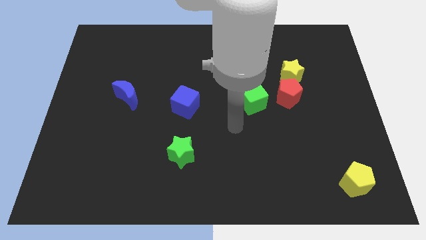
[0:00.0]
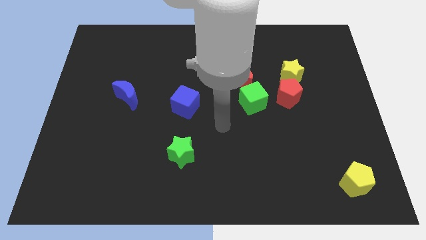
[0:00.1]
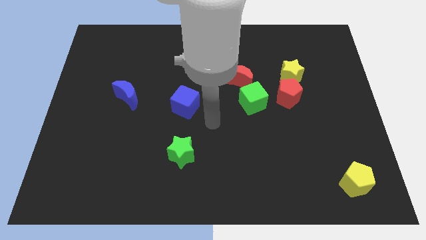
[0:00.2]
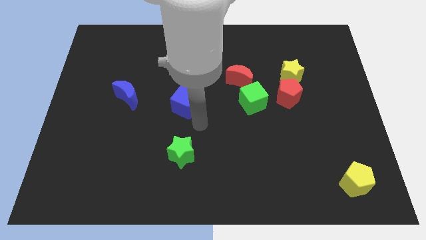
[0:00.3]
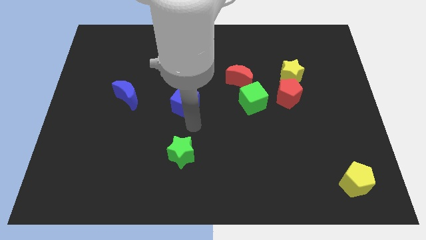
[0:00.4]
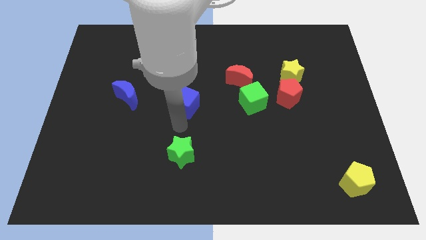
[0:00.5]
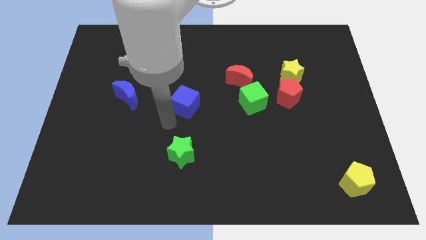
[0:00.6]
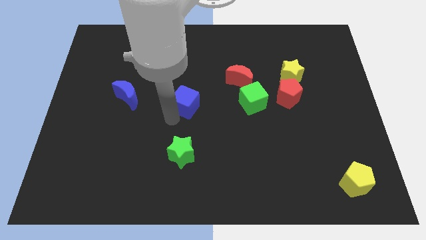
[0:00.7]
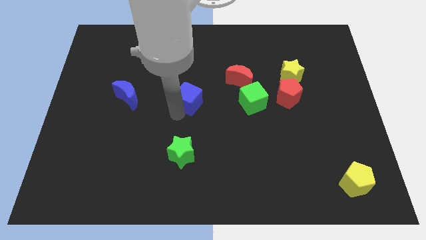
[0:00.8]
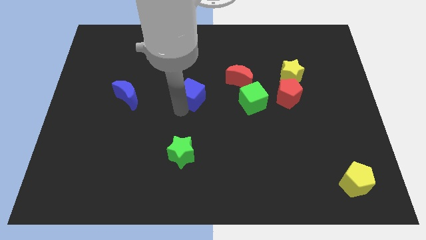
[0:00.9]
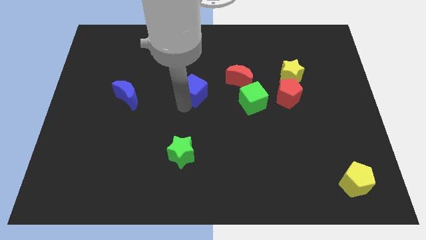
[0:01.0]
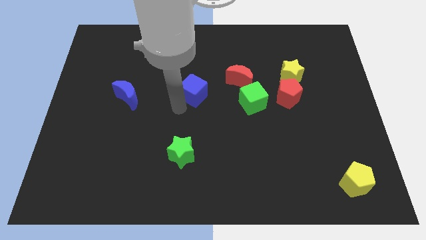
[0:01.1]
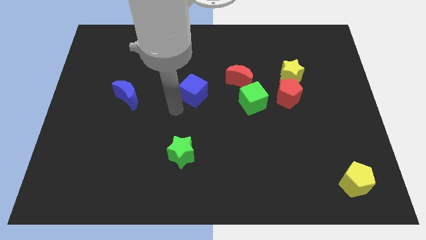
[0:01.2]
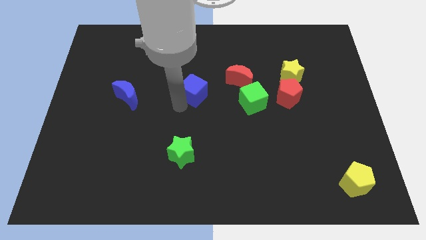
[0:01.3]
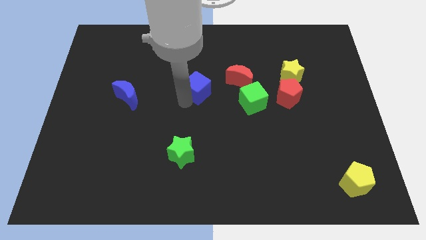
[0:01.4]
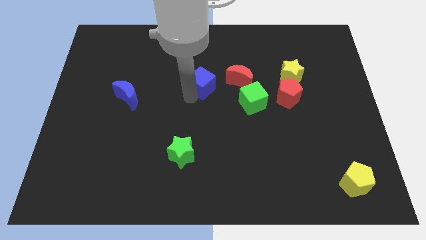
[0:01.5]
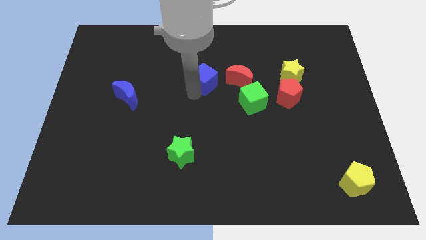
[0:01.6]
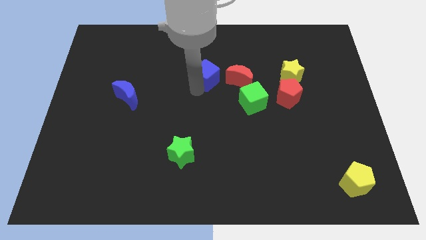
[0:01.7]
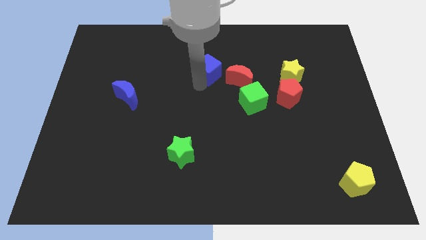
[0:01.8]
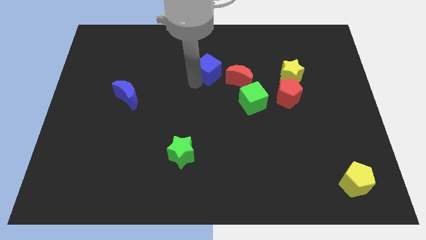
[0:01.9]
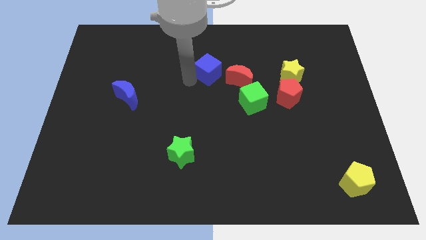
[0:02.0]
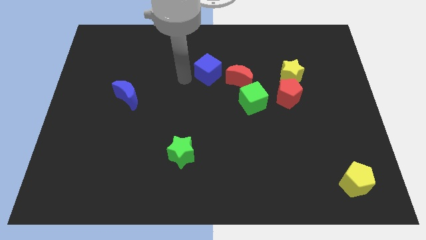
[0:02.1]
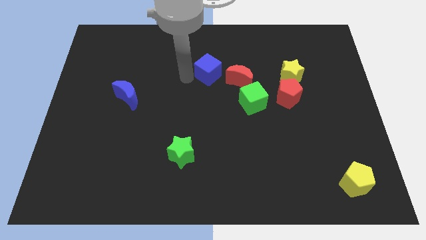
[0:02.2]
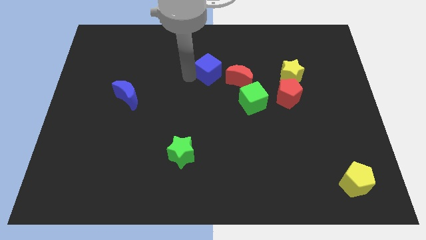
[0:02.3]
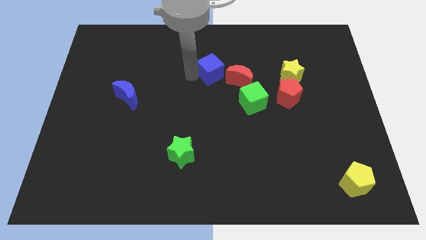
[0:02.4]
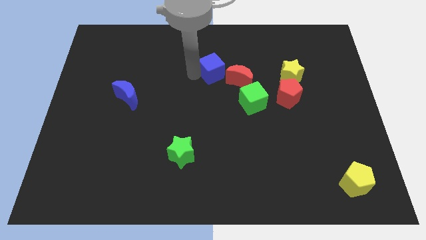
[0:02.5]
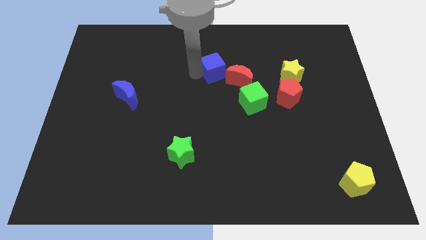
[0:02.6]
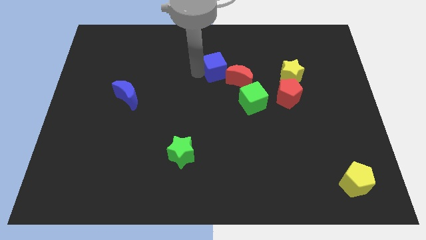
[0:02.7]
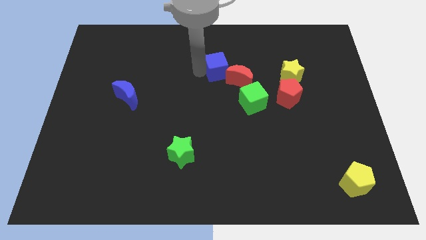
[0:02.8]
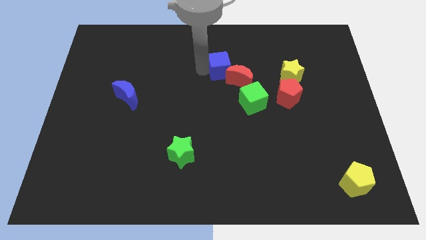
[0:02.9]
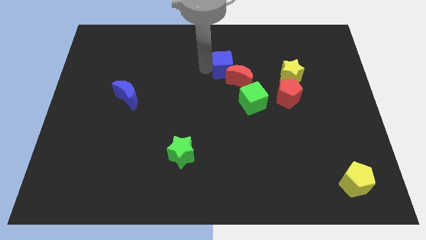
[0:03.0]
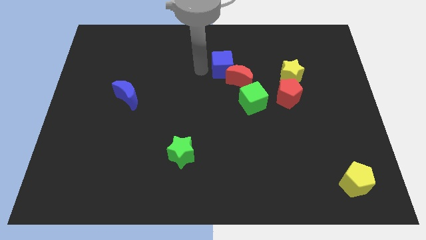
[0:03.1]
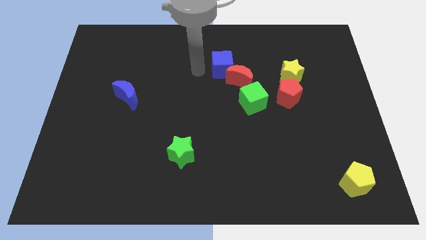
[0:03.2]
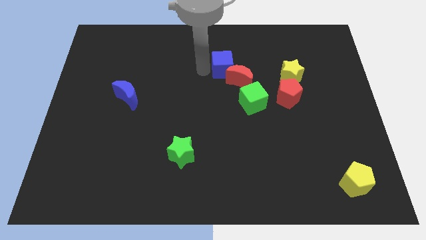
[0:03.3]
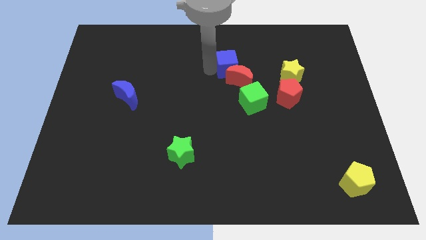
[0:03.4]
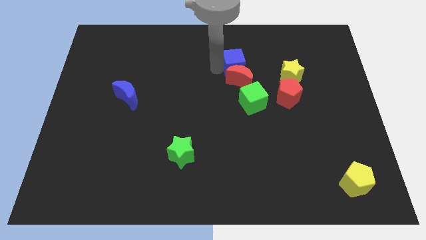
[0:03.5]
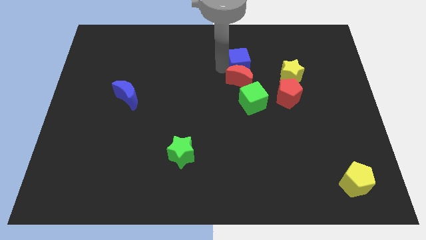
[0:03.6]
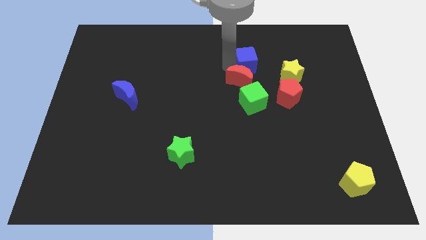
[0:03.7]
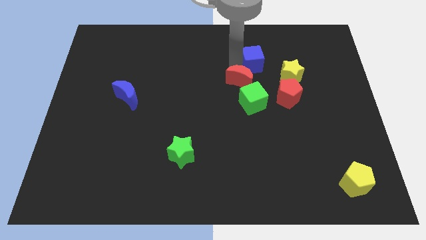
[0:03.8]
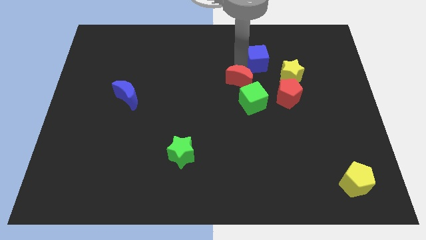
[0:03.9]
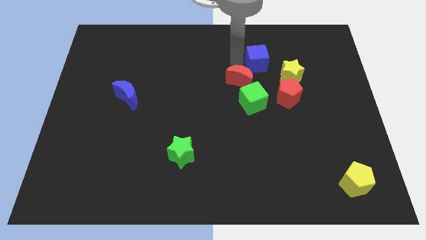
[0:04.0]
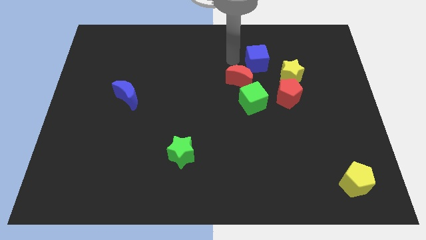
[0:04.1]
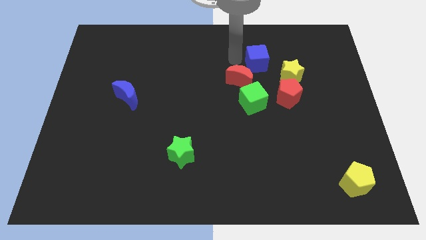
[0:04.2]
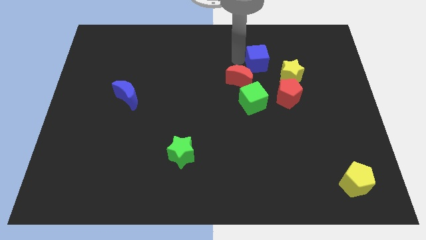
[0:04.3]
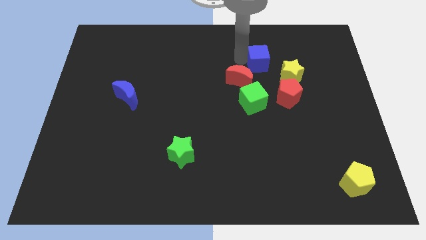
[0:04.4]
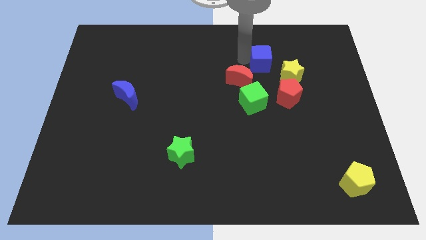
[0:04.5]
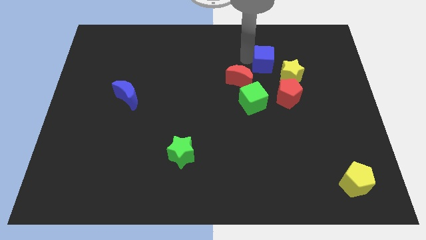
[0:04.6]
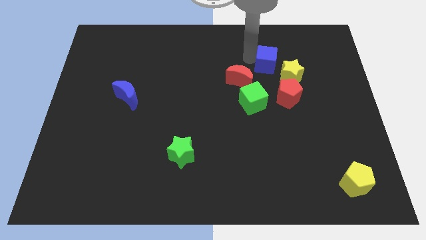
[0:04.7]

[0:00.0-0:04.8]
put the blue cube to the top side of the red pentagon

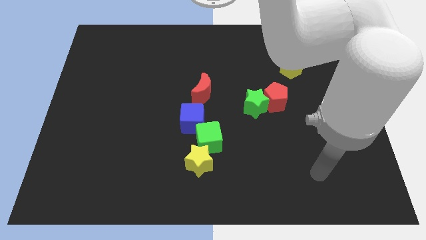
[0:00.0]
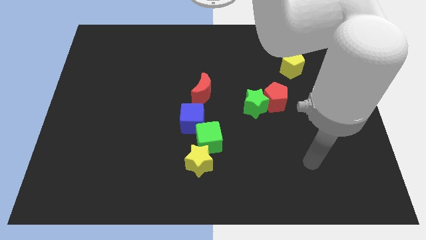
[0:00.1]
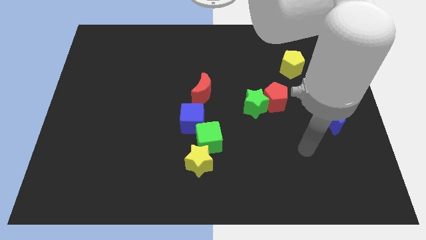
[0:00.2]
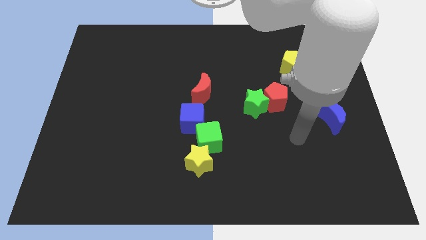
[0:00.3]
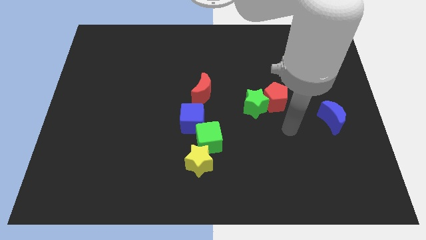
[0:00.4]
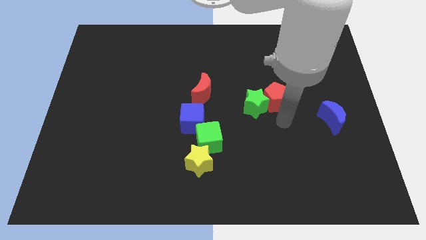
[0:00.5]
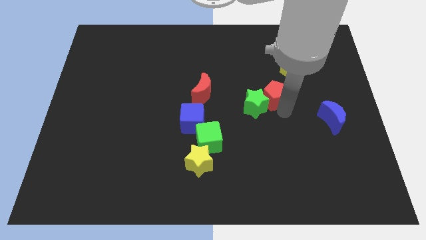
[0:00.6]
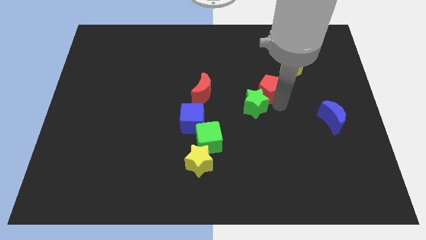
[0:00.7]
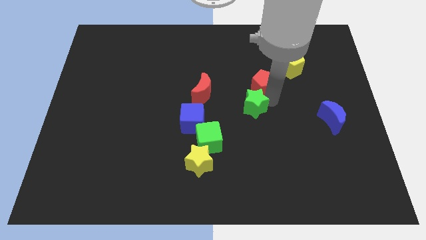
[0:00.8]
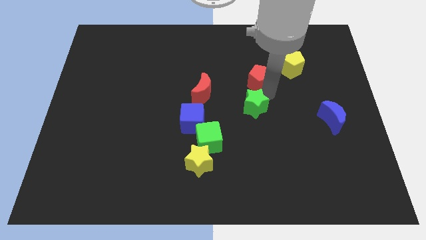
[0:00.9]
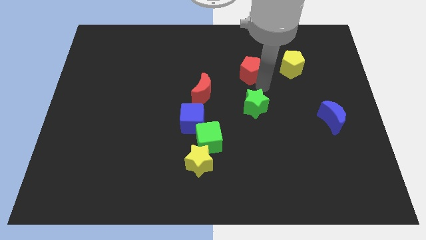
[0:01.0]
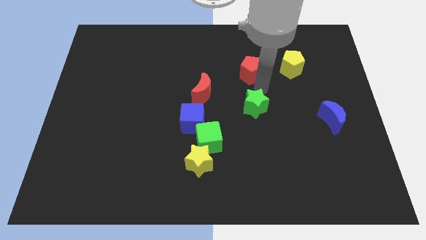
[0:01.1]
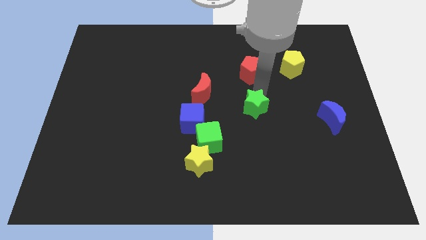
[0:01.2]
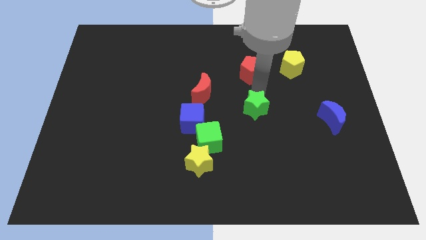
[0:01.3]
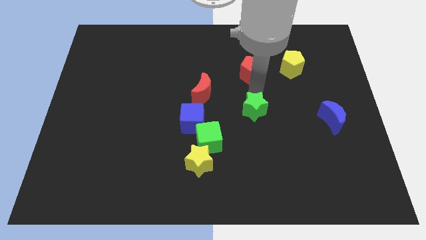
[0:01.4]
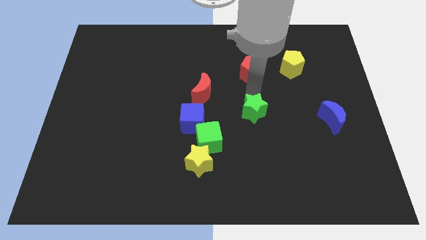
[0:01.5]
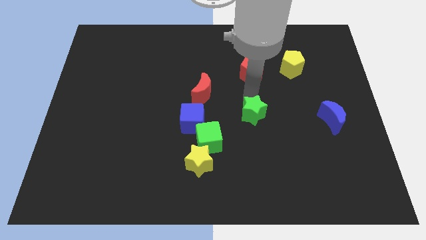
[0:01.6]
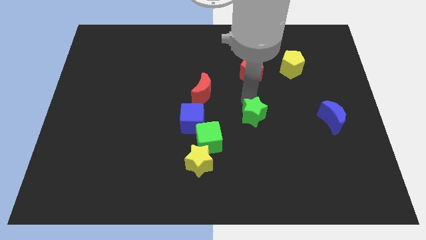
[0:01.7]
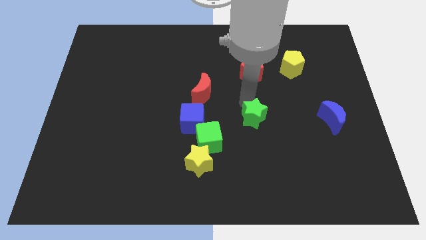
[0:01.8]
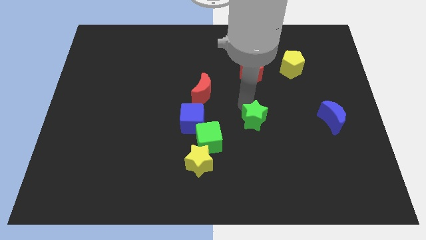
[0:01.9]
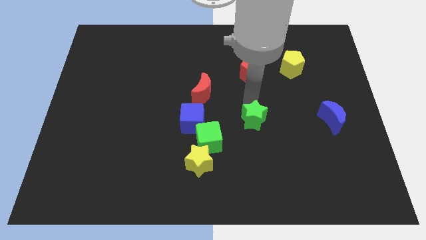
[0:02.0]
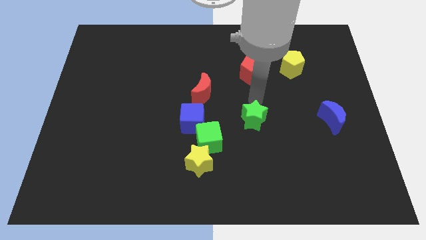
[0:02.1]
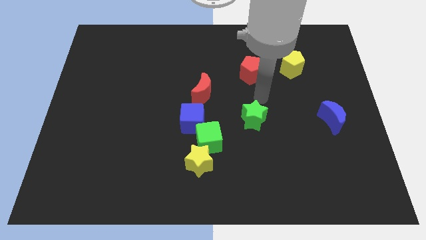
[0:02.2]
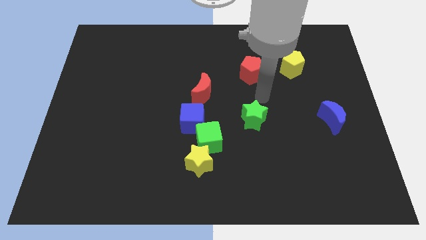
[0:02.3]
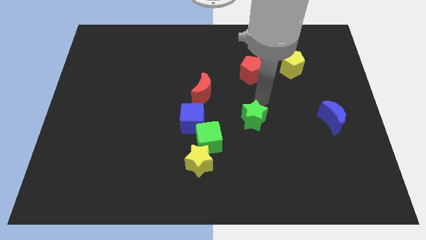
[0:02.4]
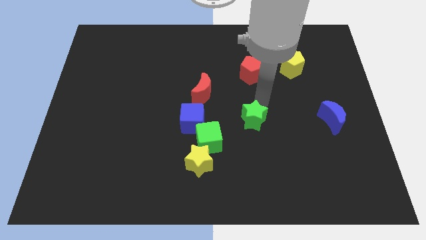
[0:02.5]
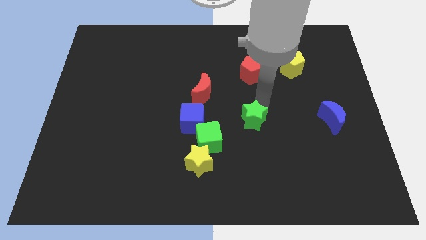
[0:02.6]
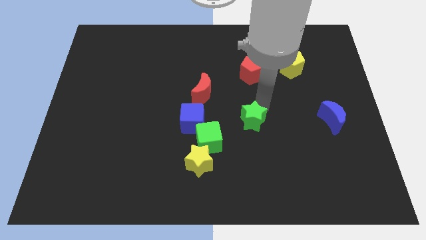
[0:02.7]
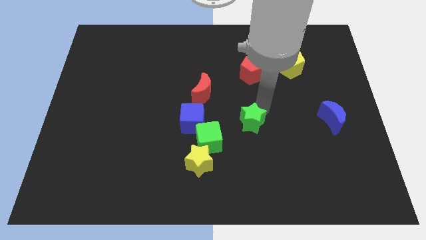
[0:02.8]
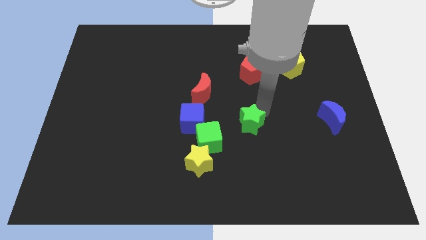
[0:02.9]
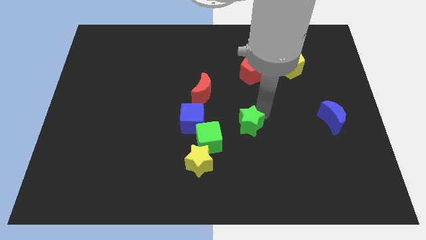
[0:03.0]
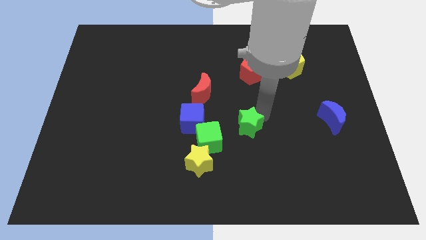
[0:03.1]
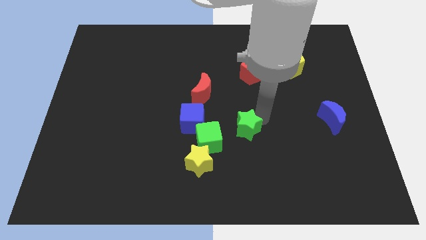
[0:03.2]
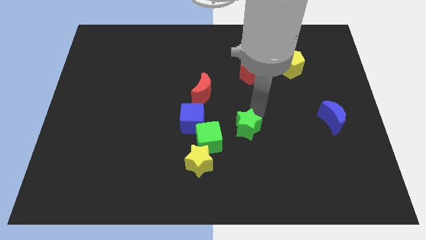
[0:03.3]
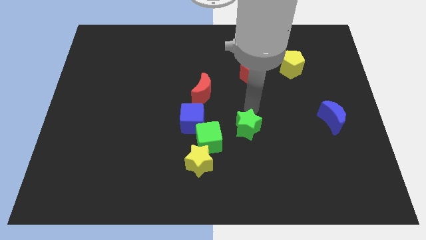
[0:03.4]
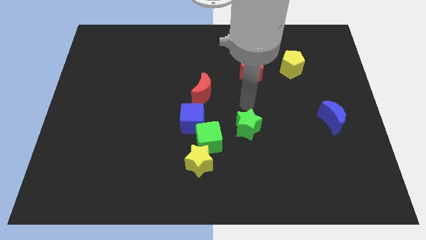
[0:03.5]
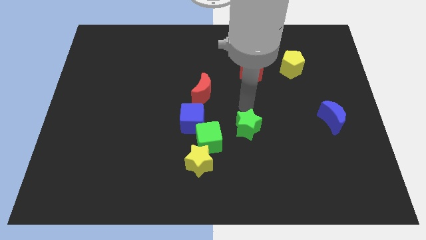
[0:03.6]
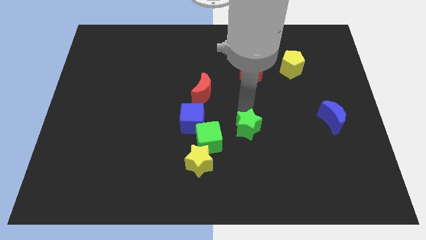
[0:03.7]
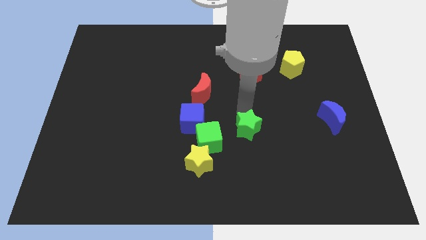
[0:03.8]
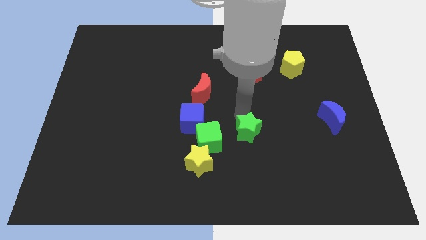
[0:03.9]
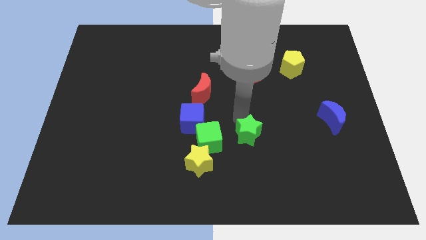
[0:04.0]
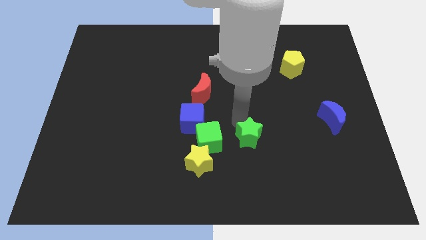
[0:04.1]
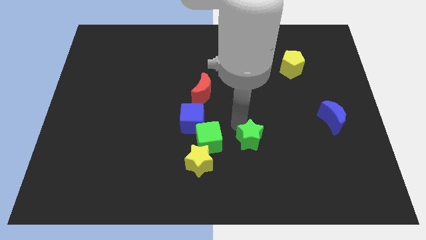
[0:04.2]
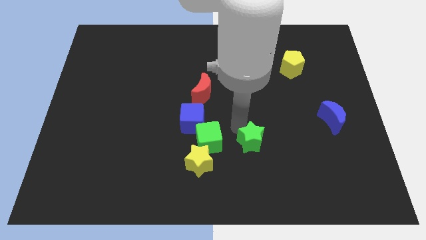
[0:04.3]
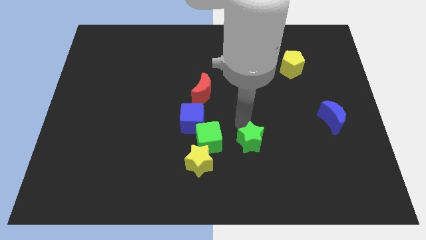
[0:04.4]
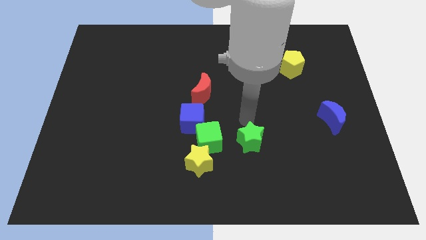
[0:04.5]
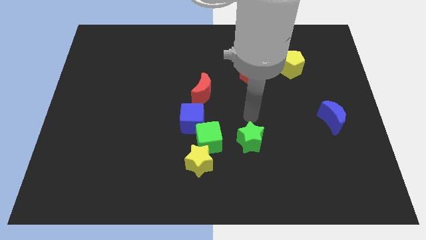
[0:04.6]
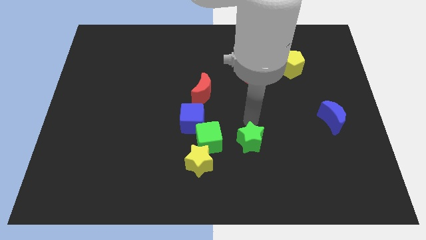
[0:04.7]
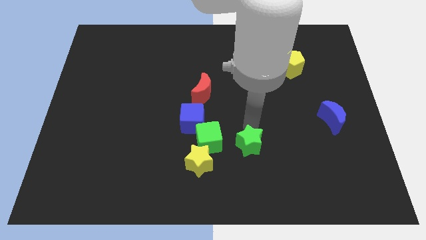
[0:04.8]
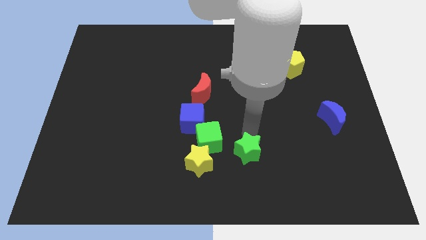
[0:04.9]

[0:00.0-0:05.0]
slide the green star to the right of the yellow star
